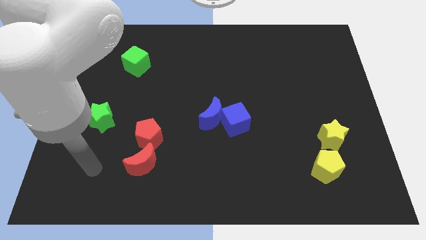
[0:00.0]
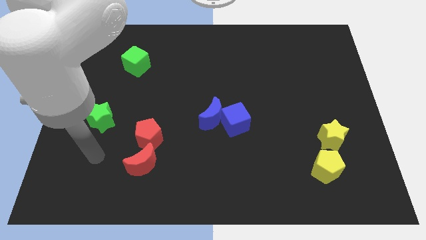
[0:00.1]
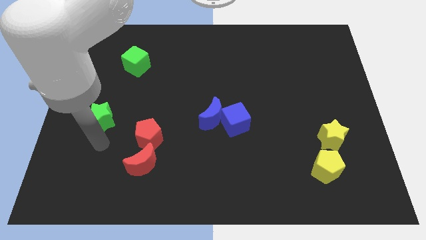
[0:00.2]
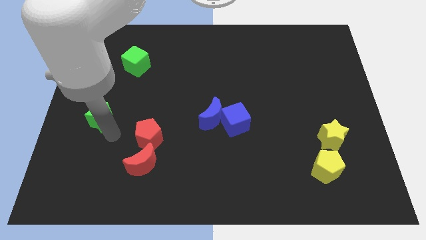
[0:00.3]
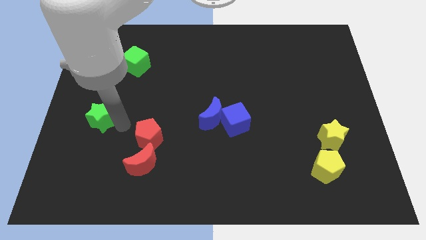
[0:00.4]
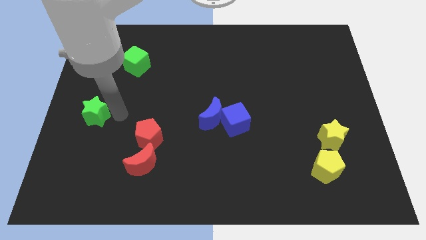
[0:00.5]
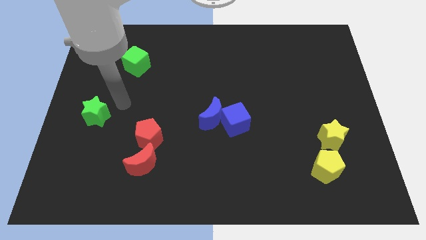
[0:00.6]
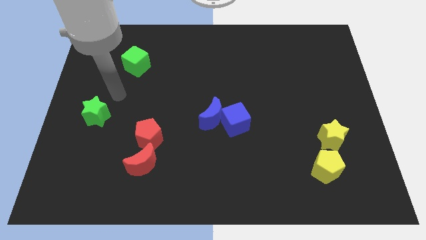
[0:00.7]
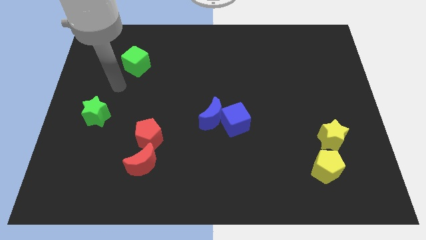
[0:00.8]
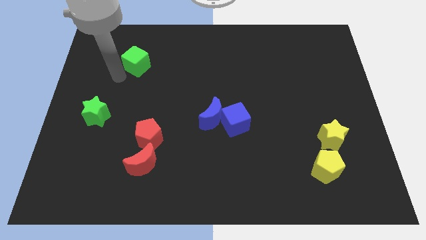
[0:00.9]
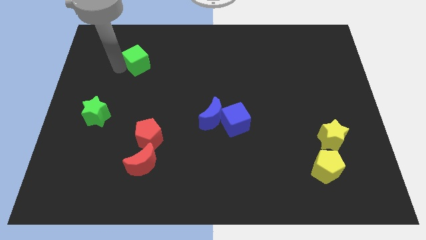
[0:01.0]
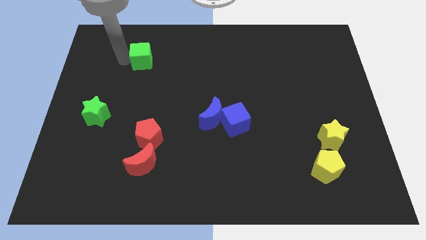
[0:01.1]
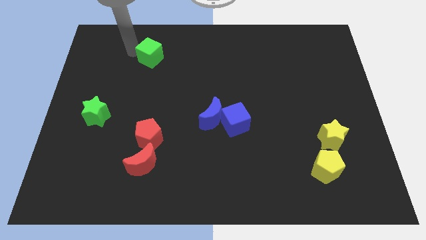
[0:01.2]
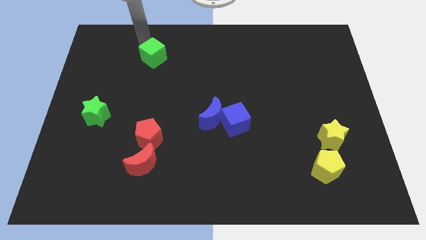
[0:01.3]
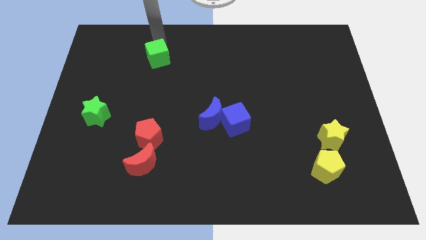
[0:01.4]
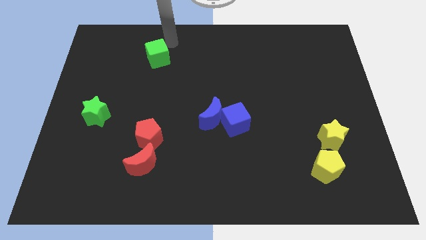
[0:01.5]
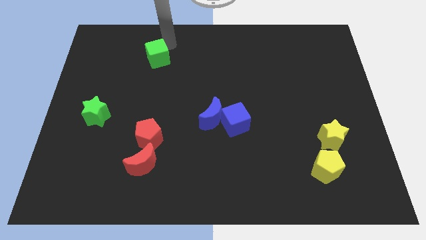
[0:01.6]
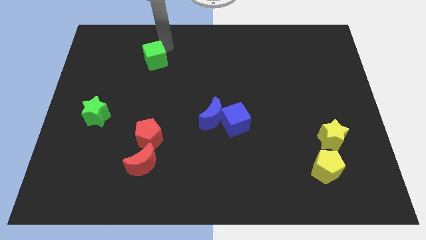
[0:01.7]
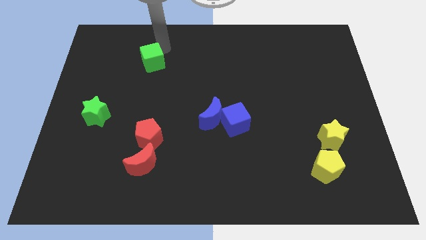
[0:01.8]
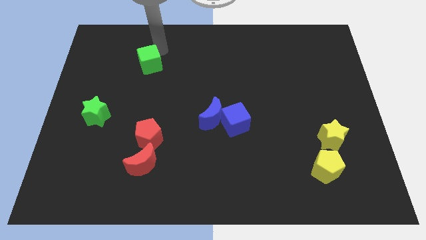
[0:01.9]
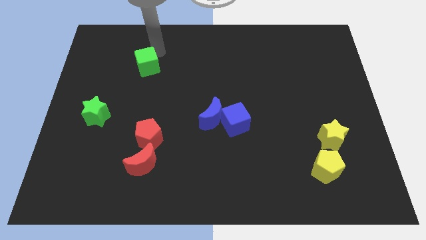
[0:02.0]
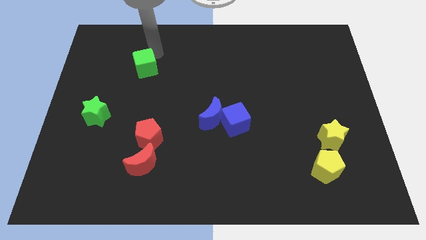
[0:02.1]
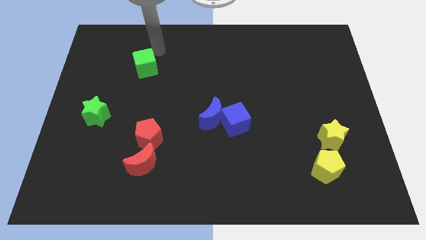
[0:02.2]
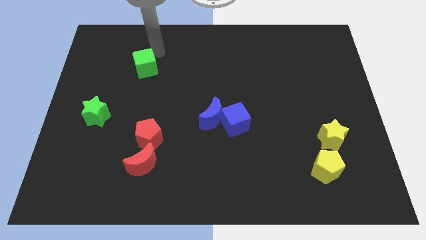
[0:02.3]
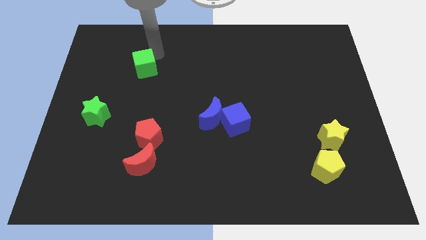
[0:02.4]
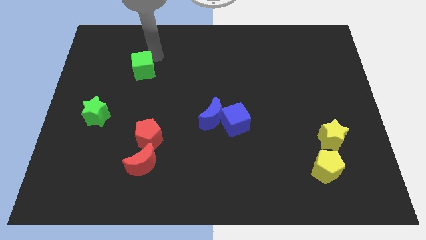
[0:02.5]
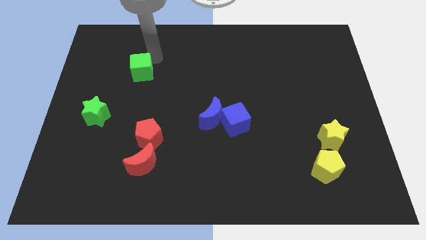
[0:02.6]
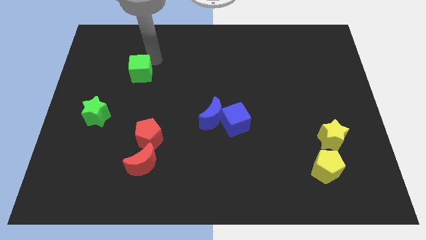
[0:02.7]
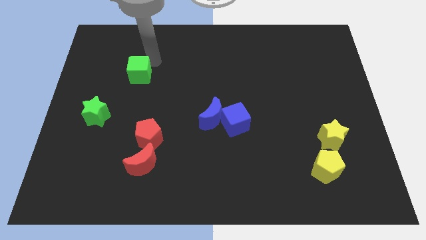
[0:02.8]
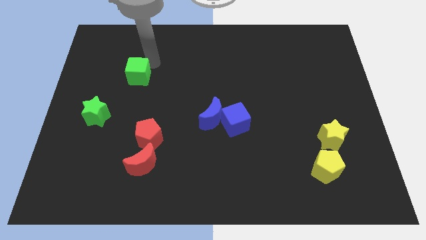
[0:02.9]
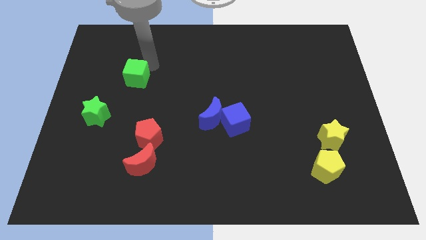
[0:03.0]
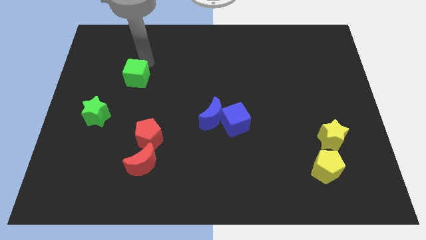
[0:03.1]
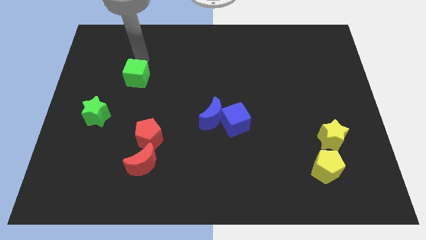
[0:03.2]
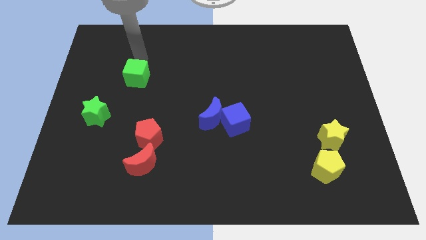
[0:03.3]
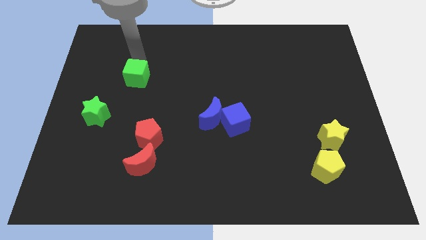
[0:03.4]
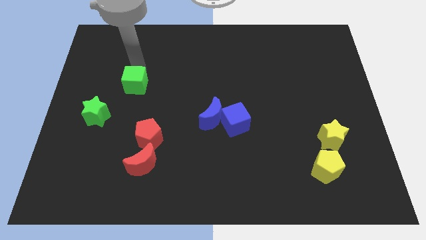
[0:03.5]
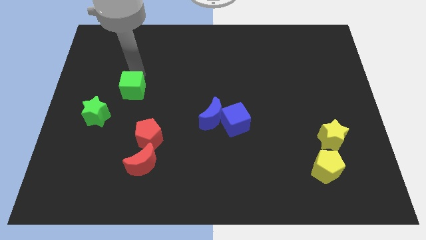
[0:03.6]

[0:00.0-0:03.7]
slide the green cube a bit downwards

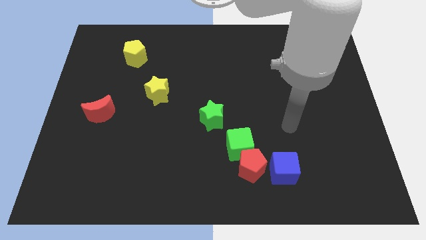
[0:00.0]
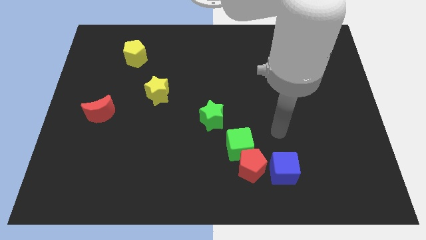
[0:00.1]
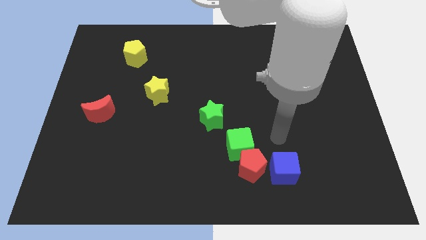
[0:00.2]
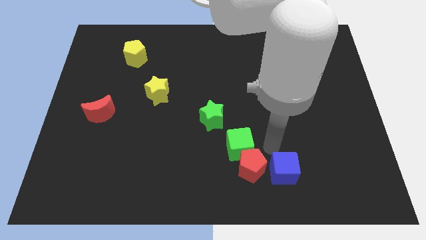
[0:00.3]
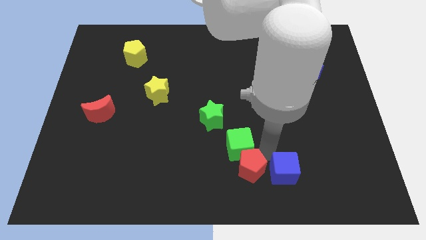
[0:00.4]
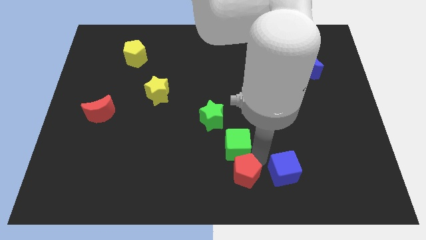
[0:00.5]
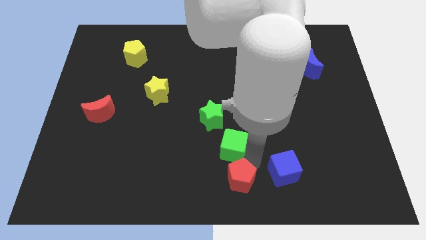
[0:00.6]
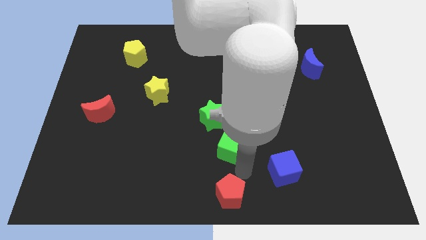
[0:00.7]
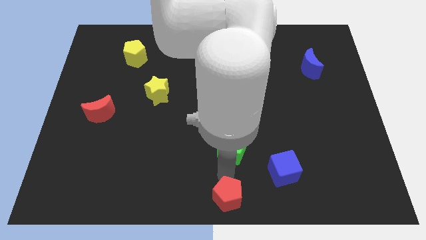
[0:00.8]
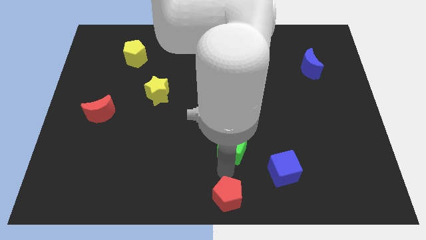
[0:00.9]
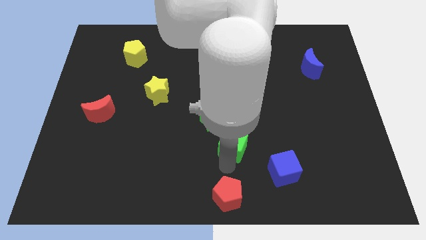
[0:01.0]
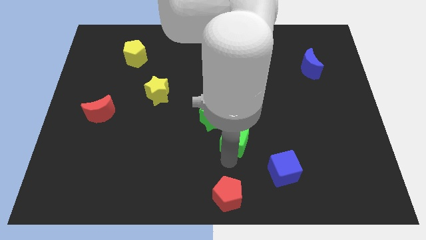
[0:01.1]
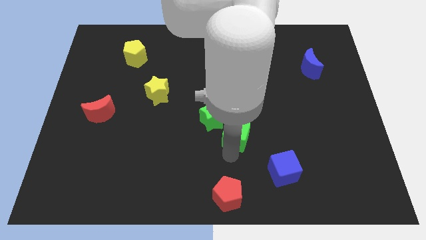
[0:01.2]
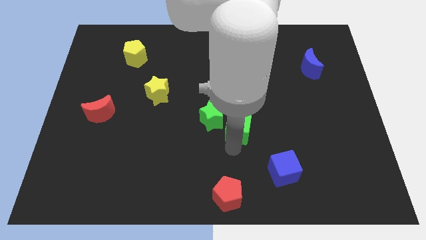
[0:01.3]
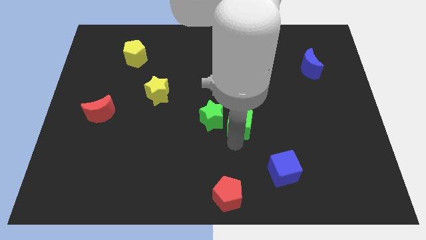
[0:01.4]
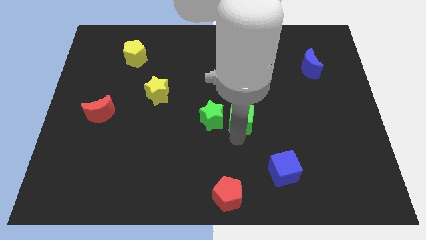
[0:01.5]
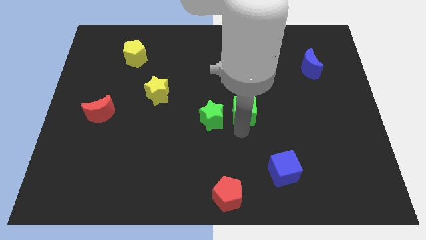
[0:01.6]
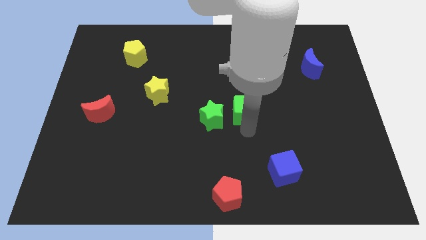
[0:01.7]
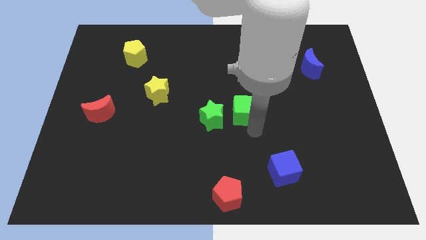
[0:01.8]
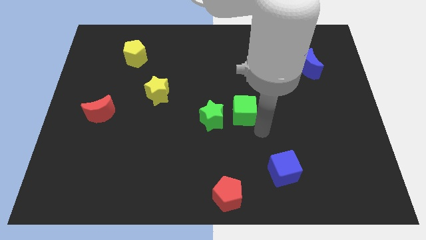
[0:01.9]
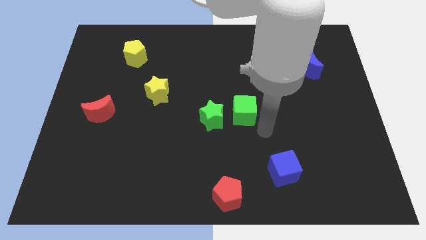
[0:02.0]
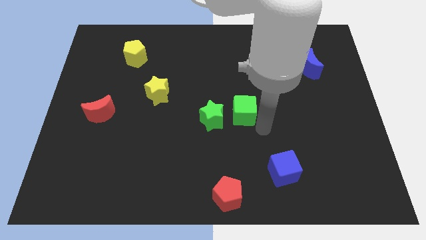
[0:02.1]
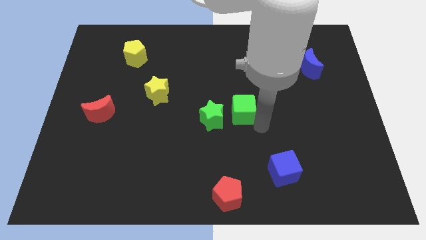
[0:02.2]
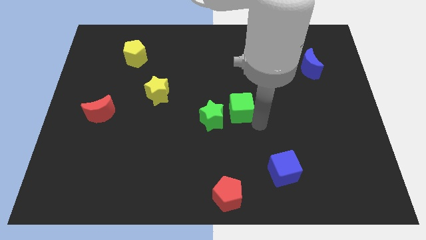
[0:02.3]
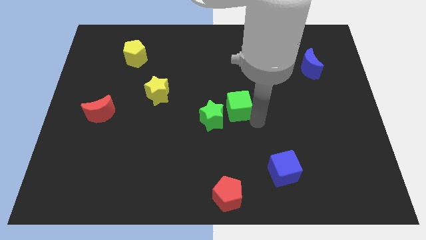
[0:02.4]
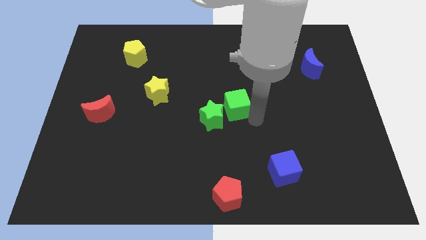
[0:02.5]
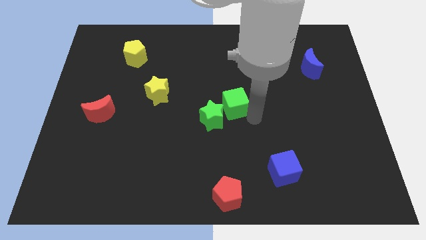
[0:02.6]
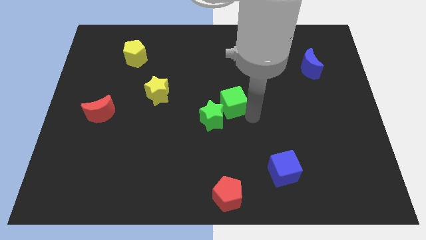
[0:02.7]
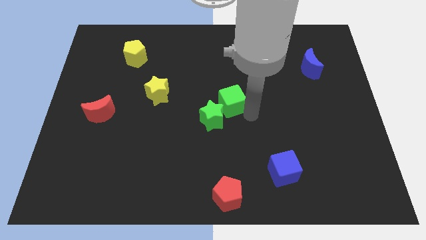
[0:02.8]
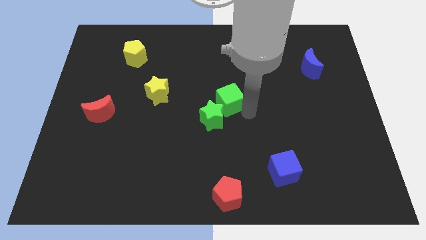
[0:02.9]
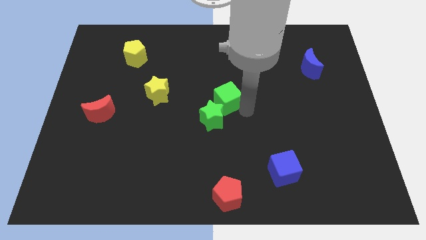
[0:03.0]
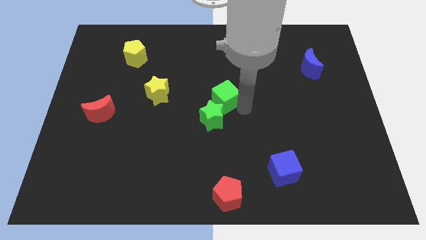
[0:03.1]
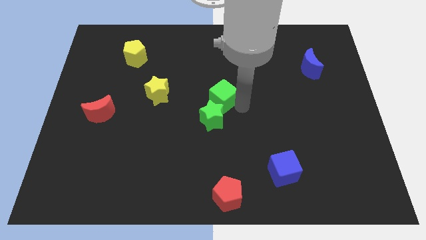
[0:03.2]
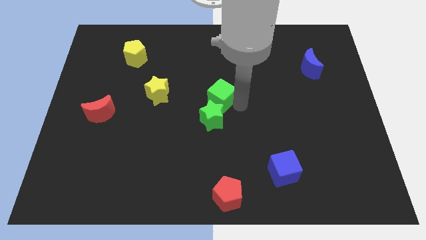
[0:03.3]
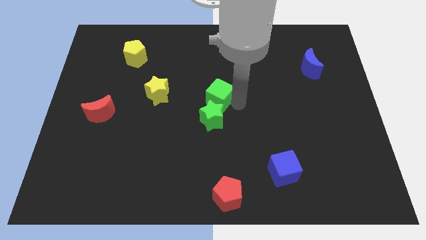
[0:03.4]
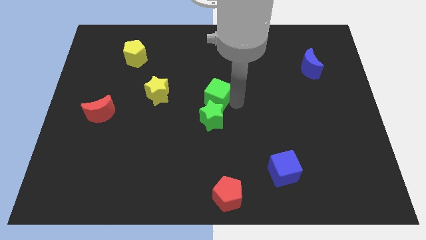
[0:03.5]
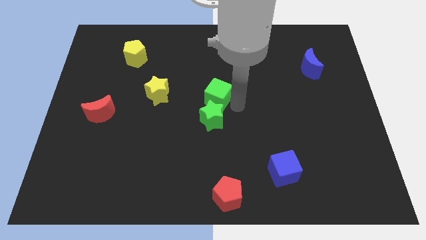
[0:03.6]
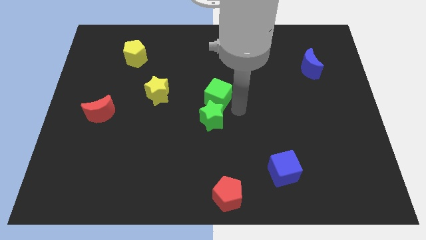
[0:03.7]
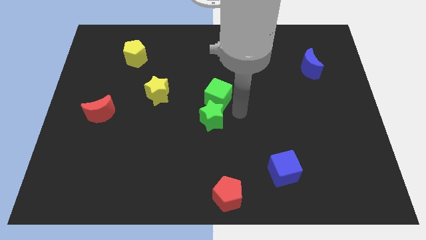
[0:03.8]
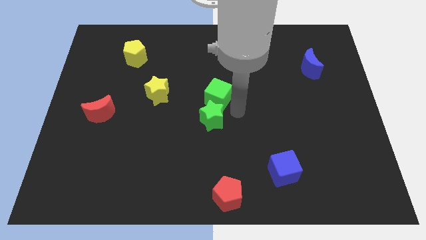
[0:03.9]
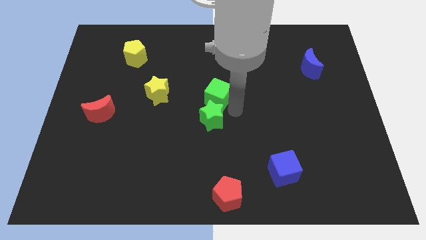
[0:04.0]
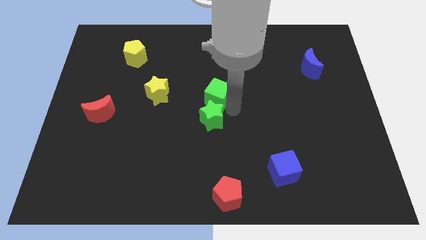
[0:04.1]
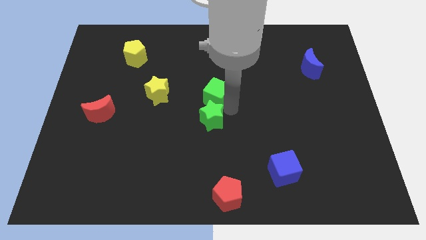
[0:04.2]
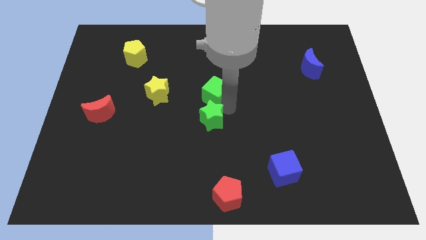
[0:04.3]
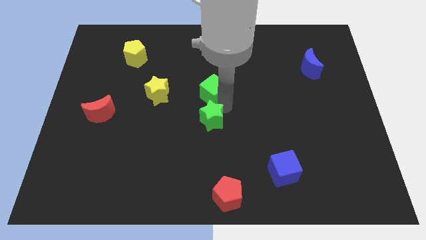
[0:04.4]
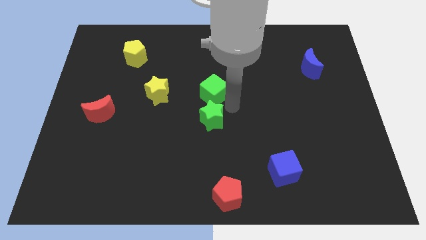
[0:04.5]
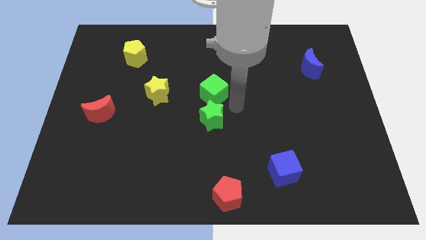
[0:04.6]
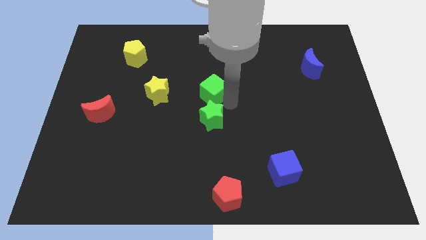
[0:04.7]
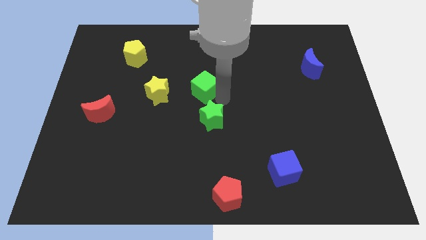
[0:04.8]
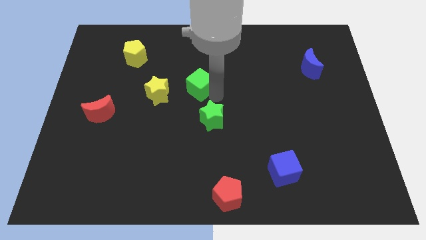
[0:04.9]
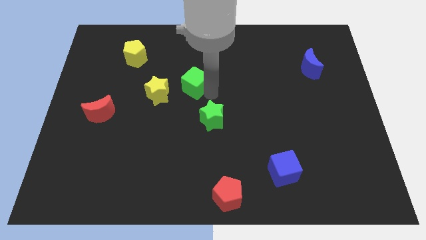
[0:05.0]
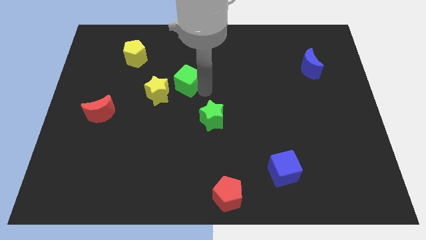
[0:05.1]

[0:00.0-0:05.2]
push the green cube diagonally upwards and to the left
